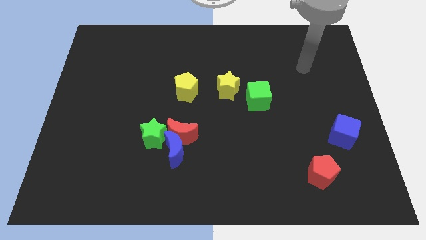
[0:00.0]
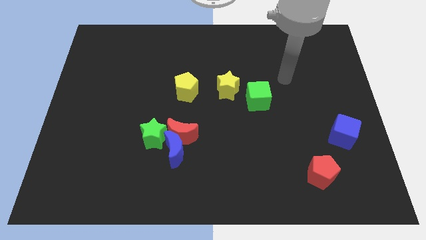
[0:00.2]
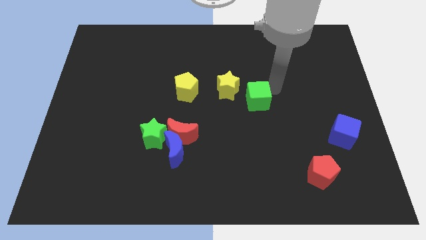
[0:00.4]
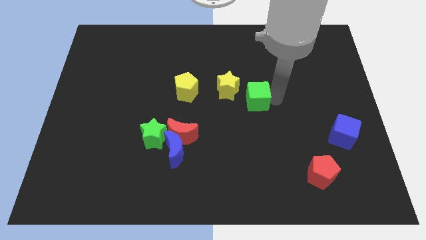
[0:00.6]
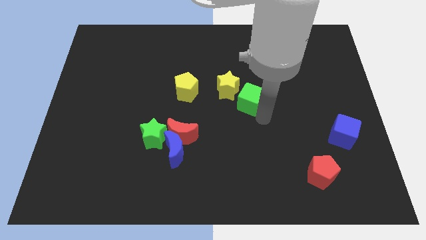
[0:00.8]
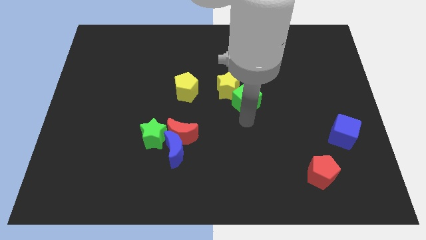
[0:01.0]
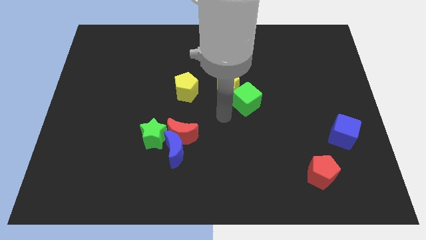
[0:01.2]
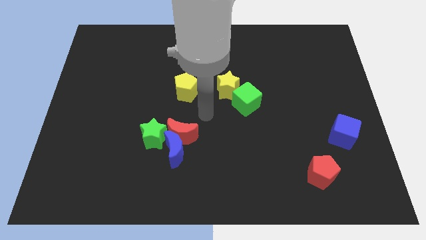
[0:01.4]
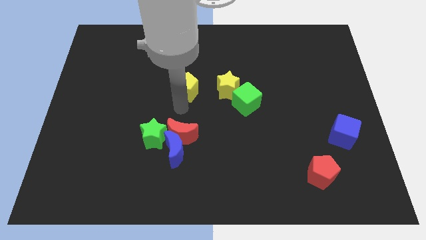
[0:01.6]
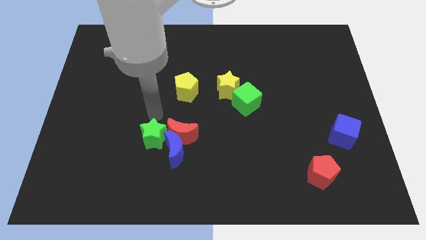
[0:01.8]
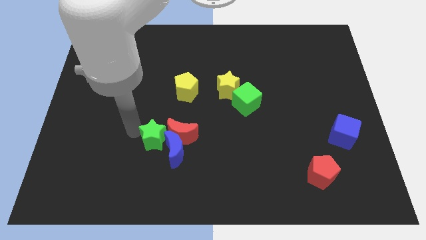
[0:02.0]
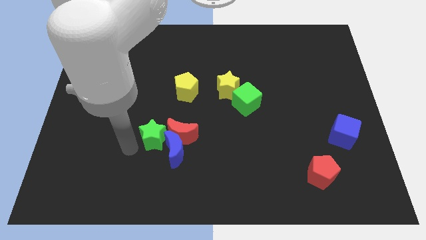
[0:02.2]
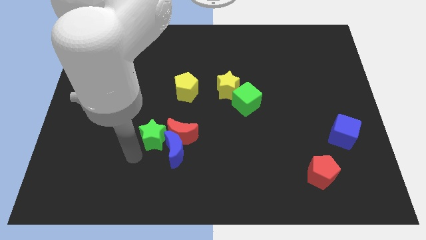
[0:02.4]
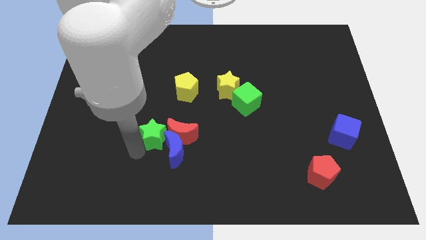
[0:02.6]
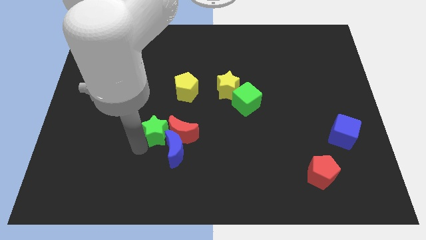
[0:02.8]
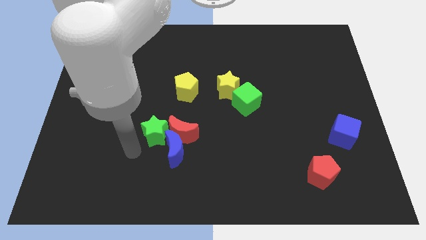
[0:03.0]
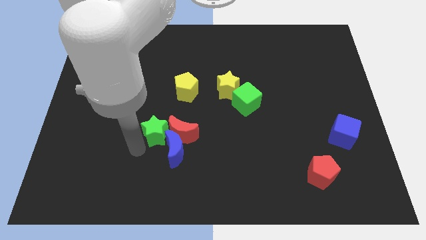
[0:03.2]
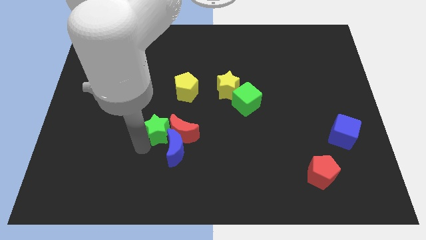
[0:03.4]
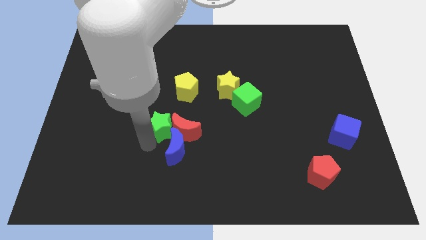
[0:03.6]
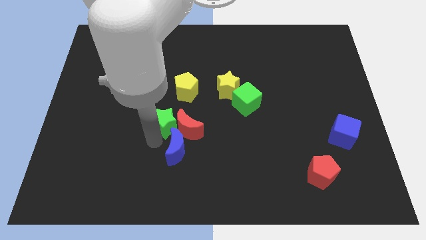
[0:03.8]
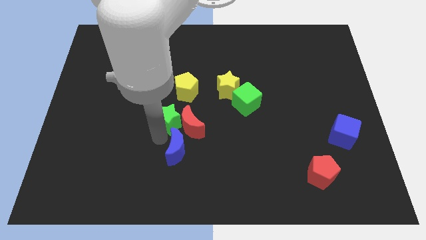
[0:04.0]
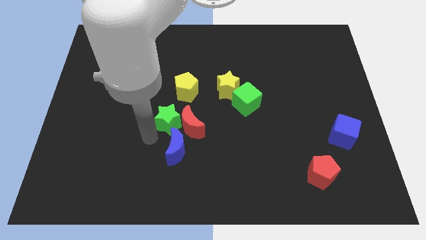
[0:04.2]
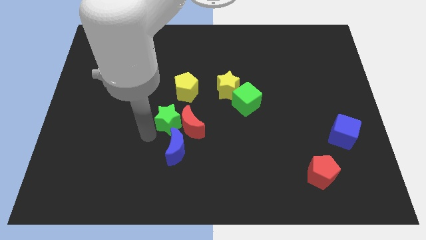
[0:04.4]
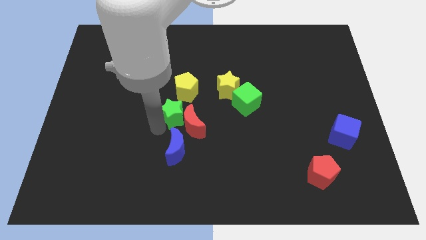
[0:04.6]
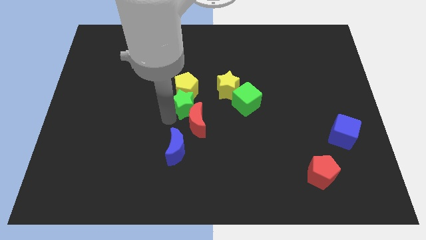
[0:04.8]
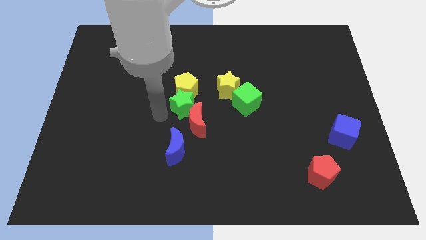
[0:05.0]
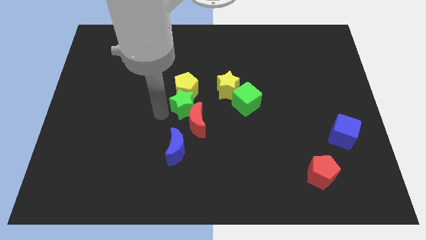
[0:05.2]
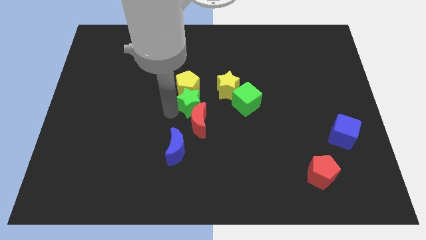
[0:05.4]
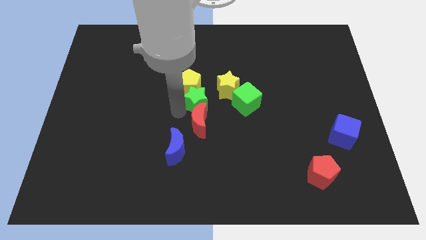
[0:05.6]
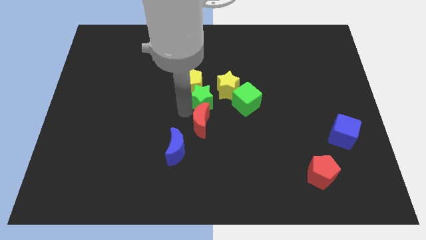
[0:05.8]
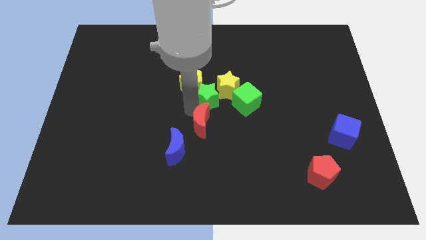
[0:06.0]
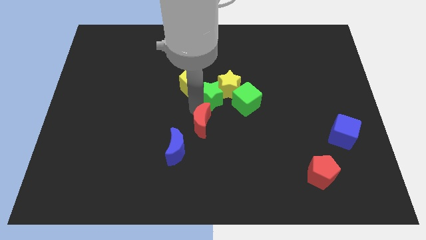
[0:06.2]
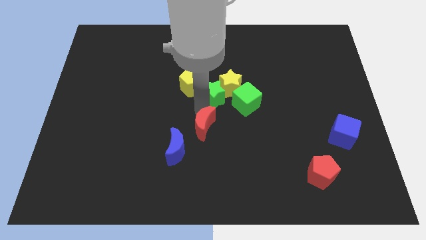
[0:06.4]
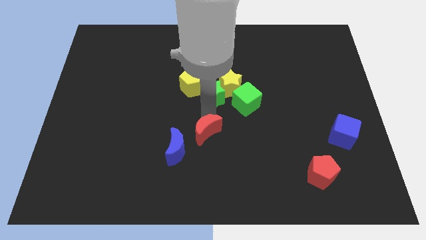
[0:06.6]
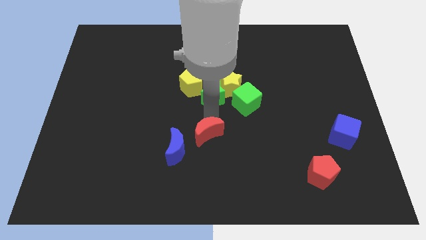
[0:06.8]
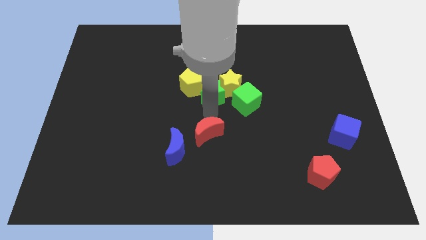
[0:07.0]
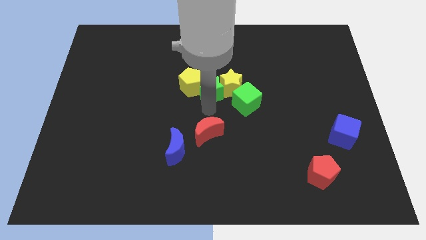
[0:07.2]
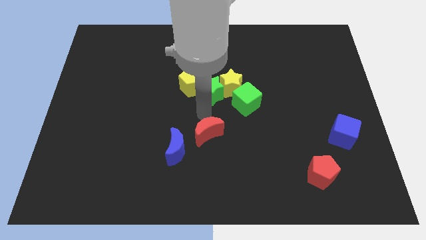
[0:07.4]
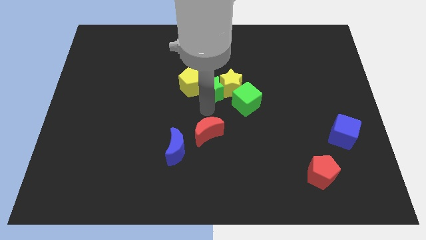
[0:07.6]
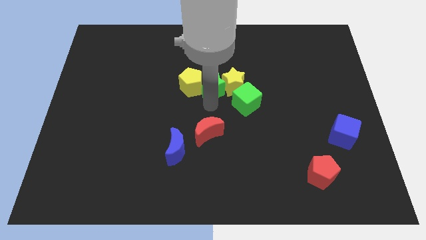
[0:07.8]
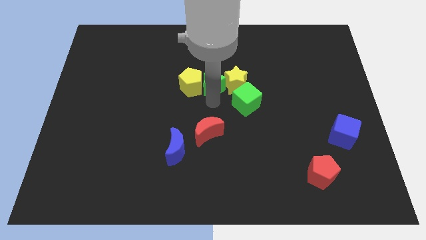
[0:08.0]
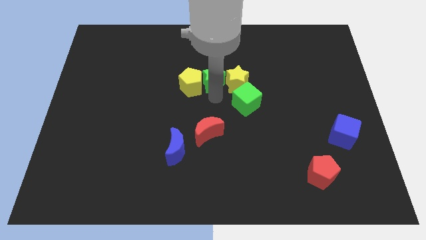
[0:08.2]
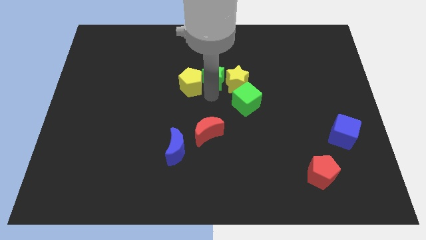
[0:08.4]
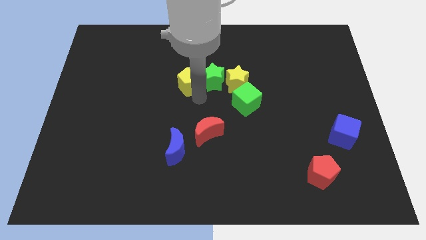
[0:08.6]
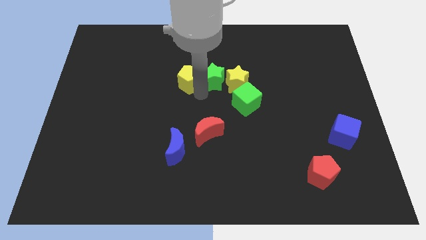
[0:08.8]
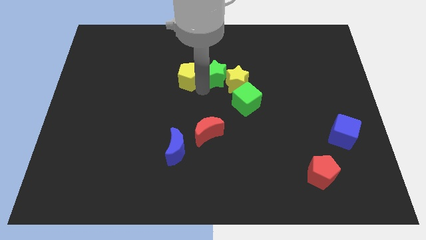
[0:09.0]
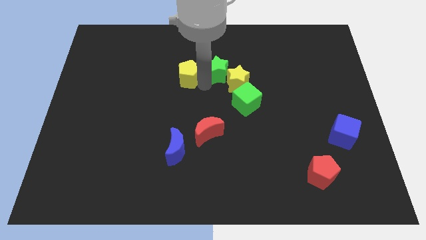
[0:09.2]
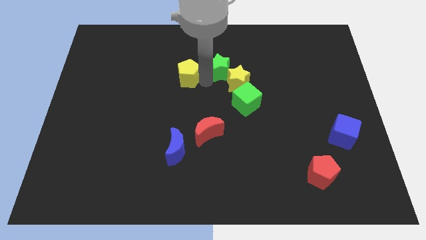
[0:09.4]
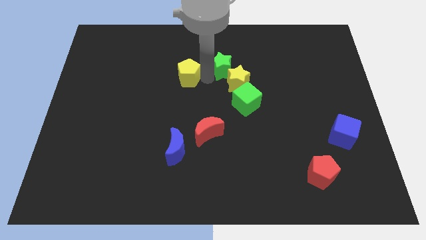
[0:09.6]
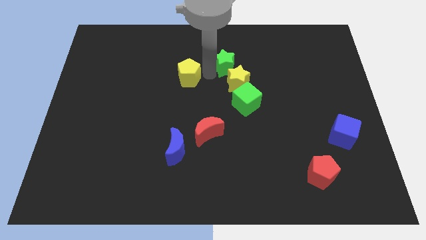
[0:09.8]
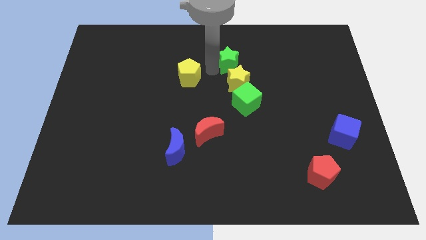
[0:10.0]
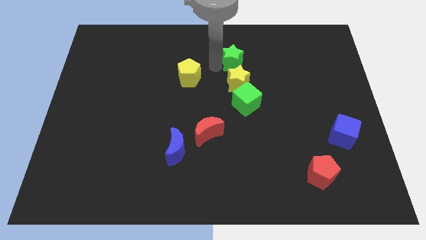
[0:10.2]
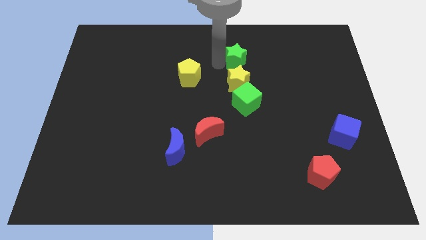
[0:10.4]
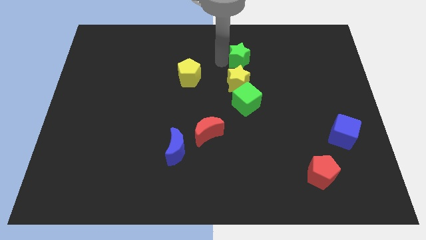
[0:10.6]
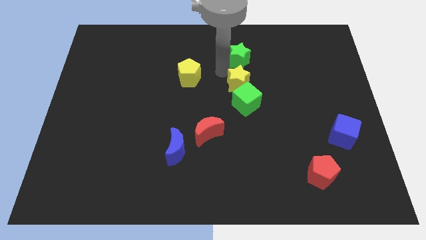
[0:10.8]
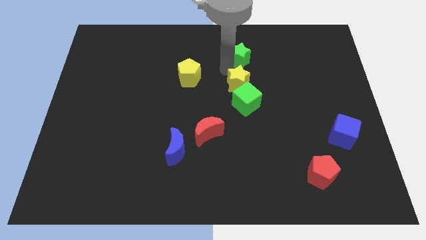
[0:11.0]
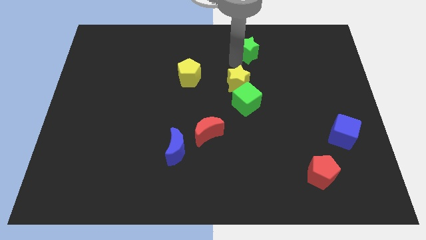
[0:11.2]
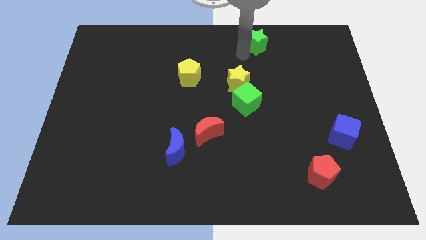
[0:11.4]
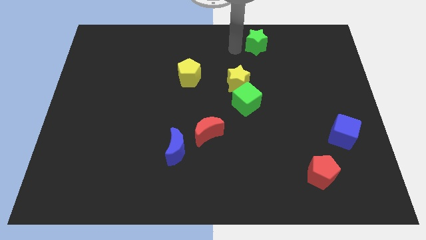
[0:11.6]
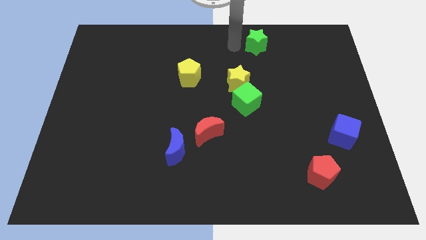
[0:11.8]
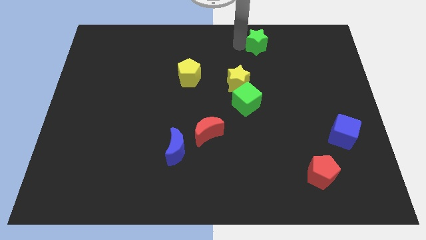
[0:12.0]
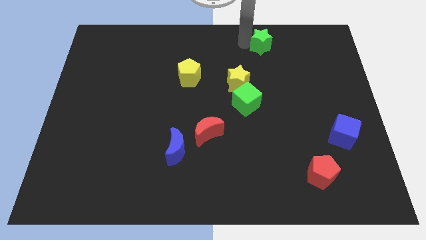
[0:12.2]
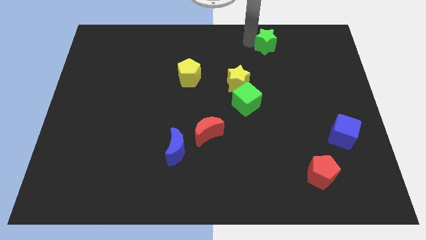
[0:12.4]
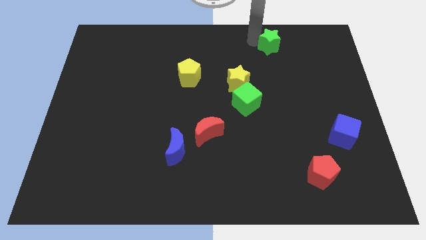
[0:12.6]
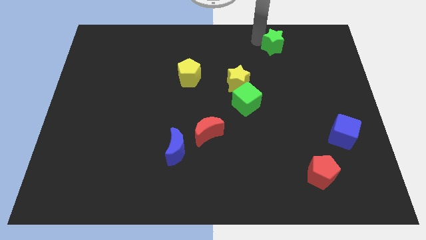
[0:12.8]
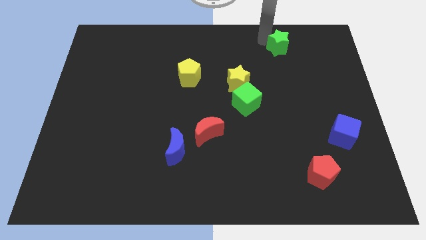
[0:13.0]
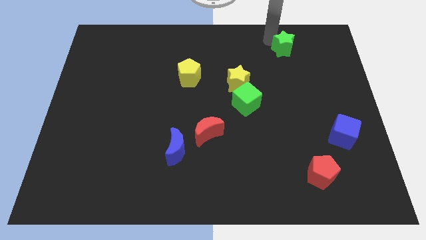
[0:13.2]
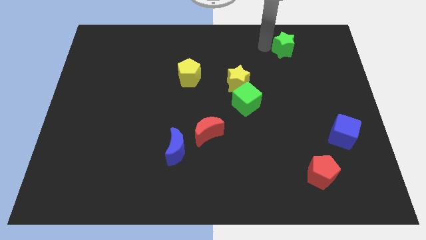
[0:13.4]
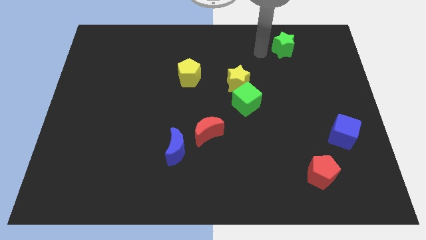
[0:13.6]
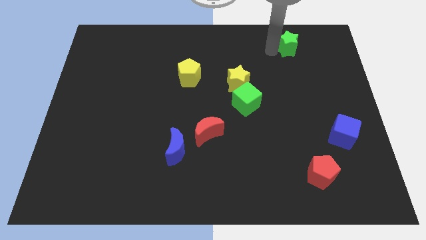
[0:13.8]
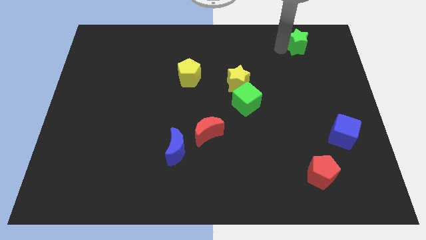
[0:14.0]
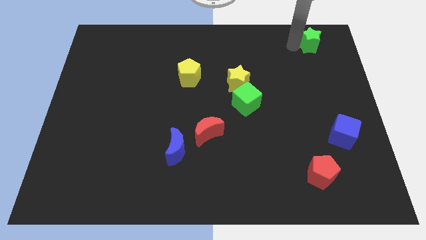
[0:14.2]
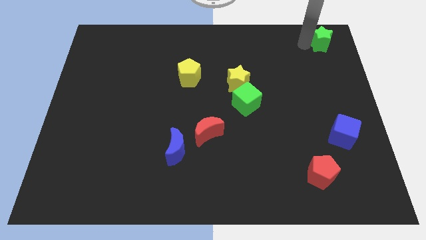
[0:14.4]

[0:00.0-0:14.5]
move the green star to the upper right corner

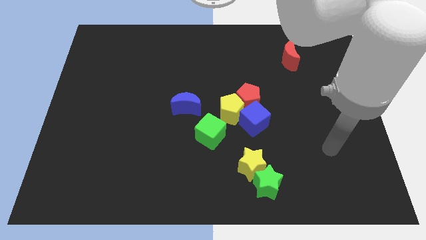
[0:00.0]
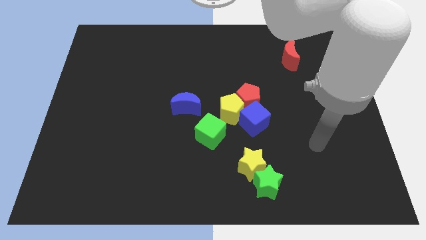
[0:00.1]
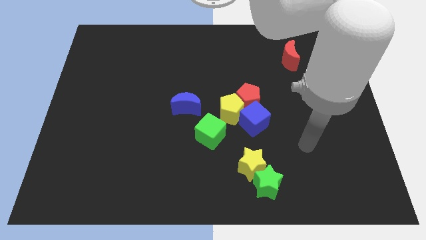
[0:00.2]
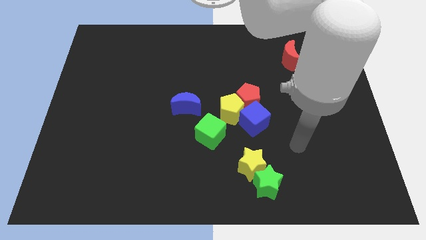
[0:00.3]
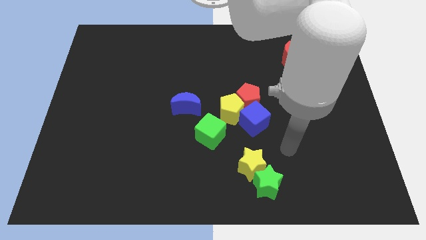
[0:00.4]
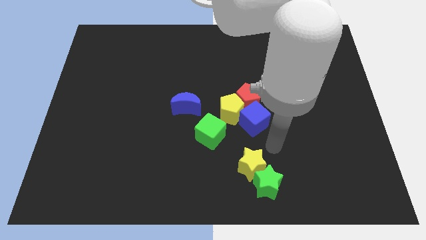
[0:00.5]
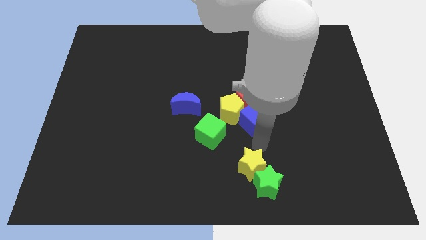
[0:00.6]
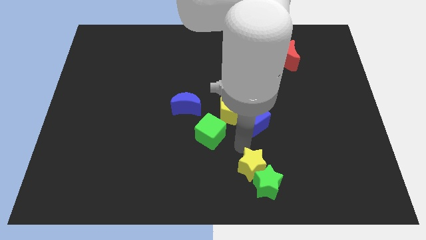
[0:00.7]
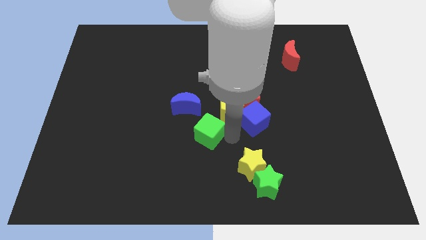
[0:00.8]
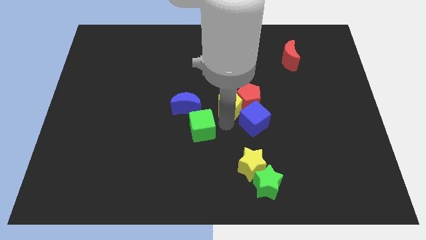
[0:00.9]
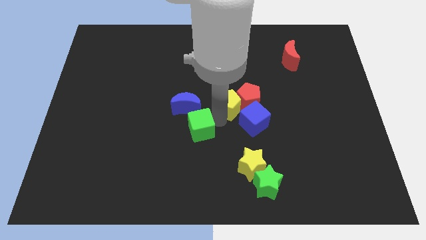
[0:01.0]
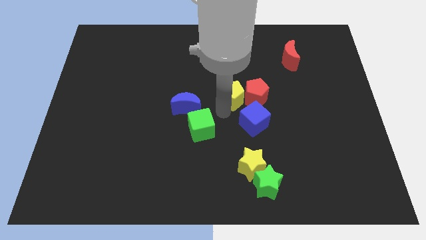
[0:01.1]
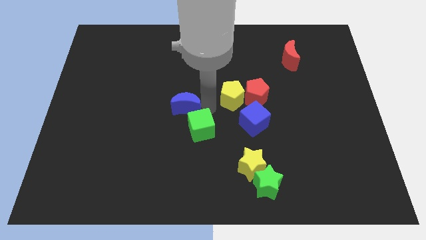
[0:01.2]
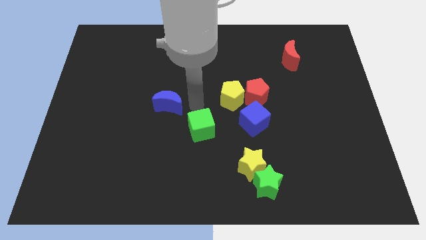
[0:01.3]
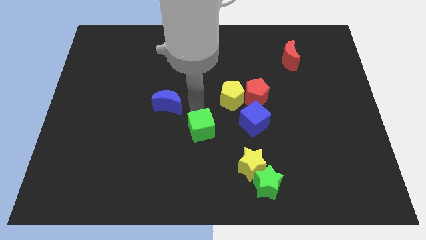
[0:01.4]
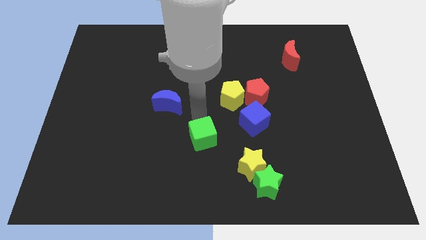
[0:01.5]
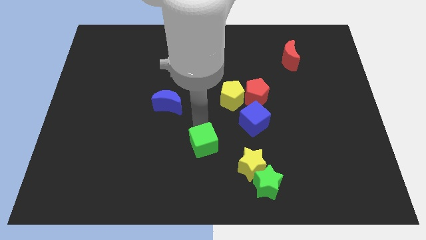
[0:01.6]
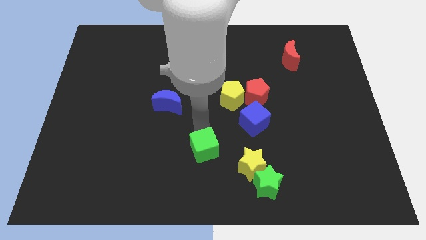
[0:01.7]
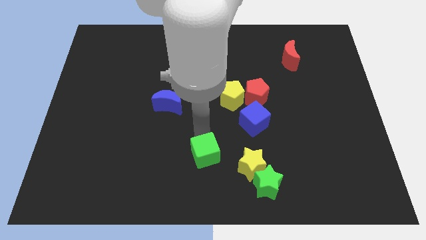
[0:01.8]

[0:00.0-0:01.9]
push the green cube to the bottom side
